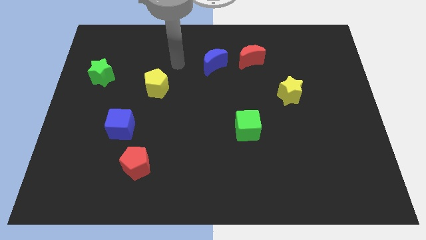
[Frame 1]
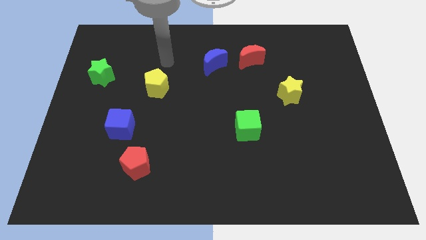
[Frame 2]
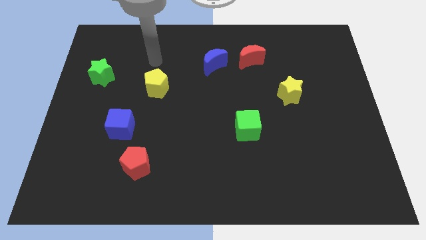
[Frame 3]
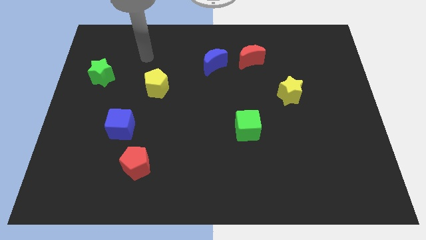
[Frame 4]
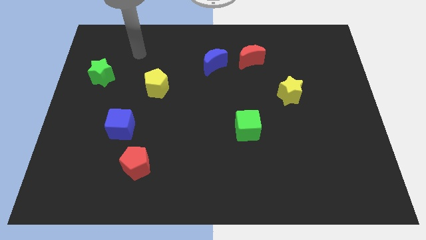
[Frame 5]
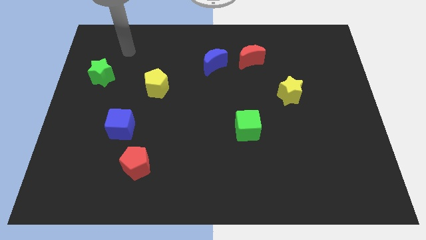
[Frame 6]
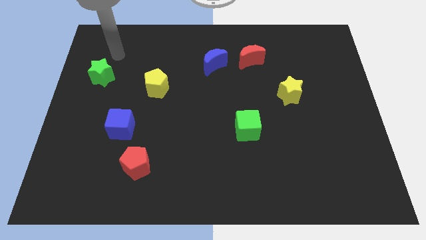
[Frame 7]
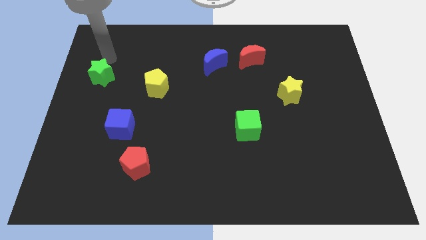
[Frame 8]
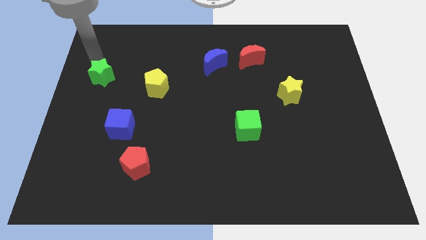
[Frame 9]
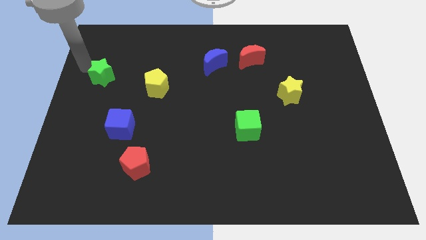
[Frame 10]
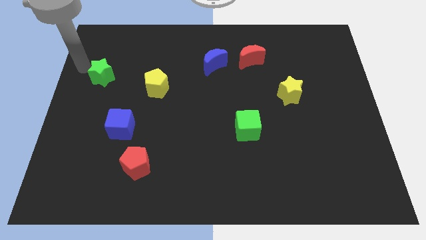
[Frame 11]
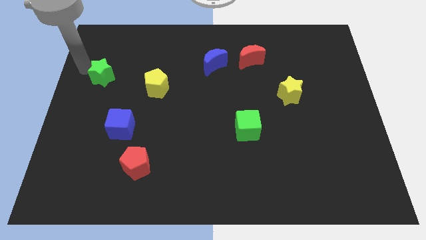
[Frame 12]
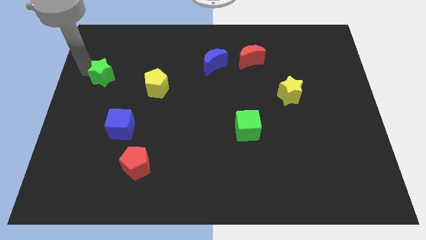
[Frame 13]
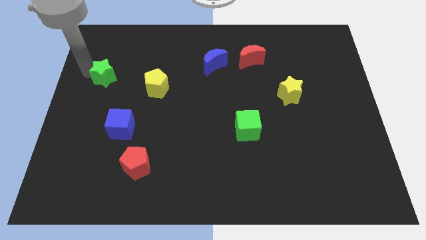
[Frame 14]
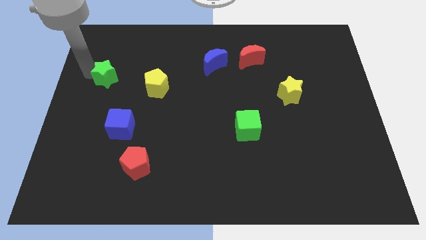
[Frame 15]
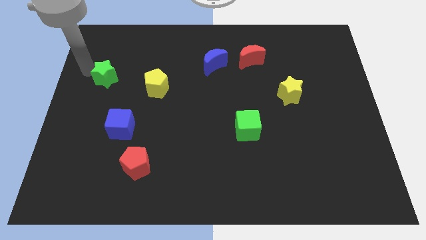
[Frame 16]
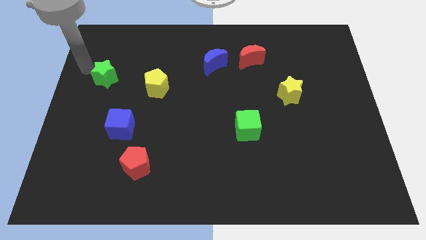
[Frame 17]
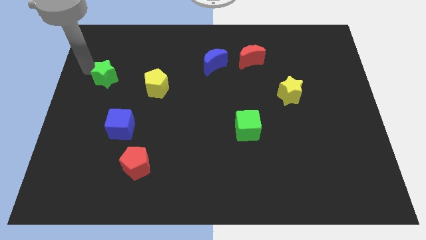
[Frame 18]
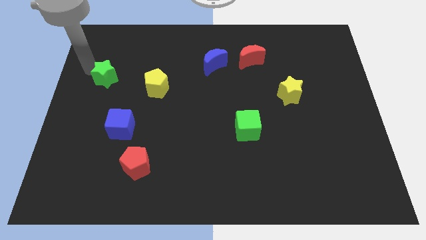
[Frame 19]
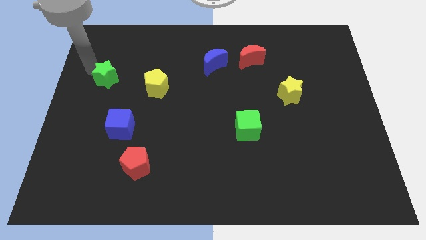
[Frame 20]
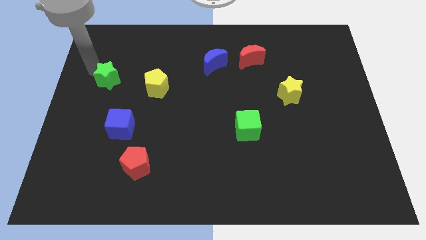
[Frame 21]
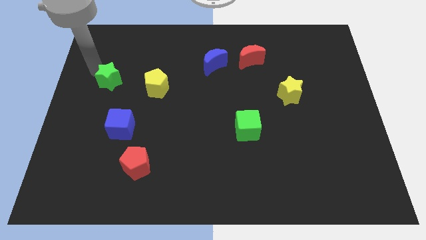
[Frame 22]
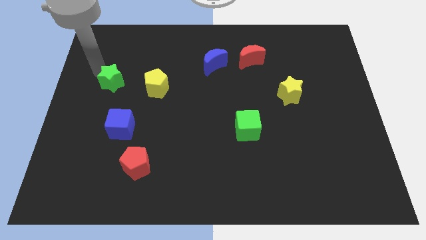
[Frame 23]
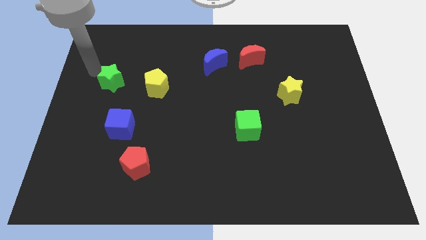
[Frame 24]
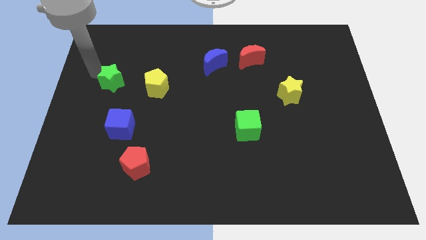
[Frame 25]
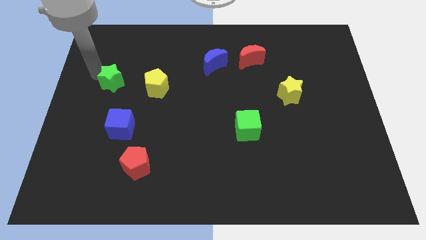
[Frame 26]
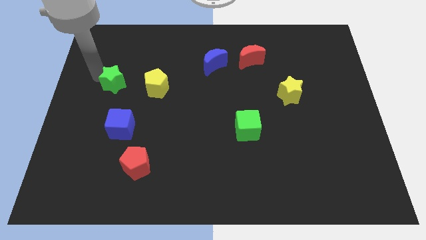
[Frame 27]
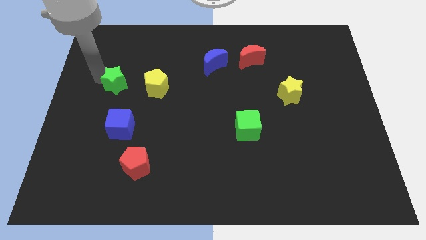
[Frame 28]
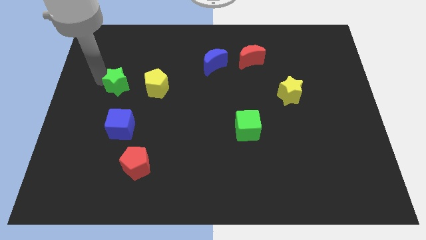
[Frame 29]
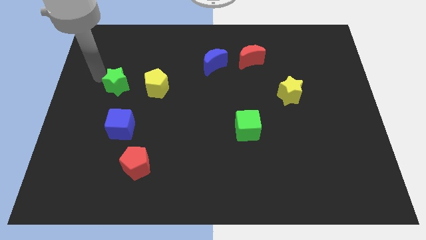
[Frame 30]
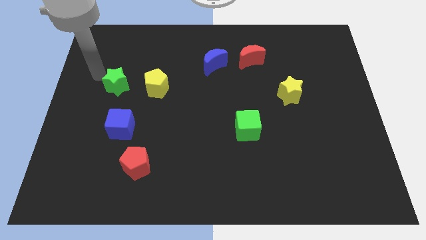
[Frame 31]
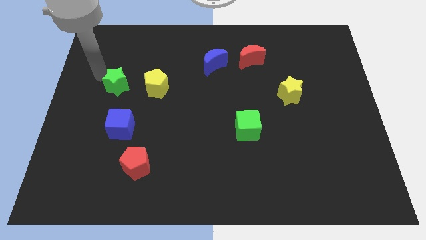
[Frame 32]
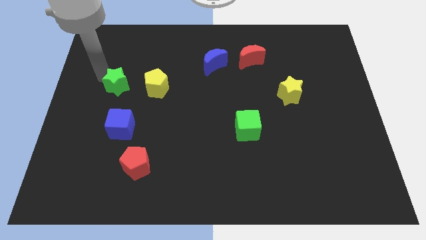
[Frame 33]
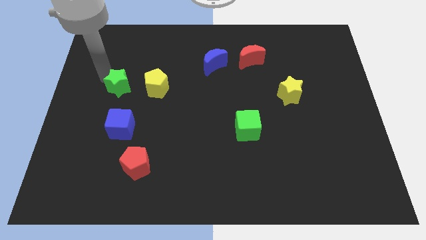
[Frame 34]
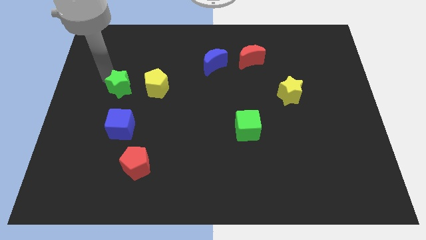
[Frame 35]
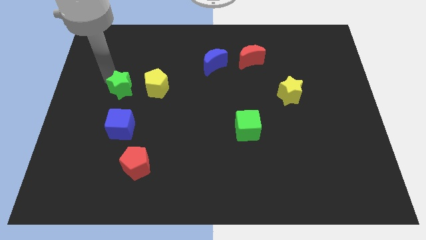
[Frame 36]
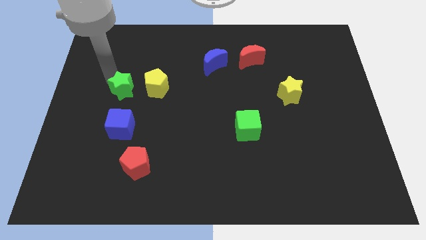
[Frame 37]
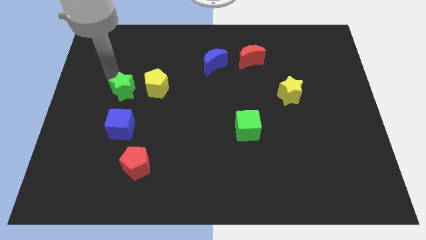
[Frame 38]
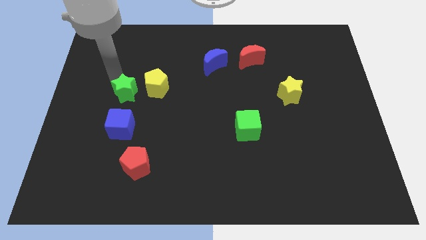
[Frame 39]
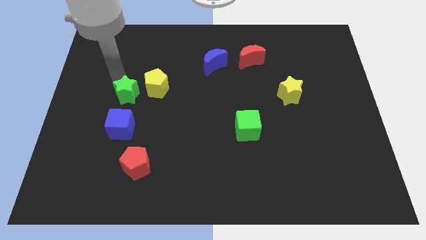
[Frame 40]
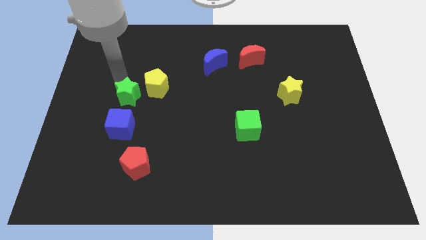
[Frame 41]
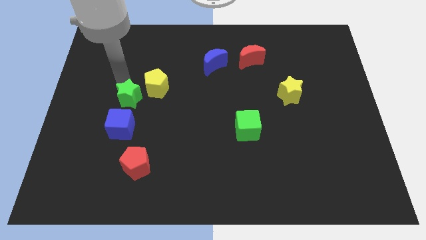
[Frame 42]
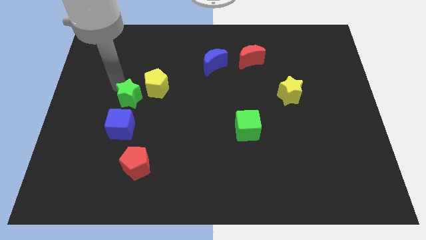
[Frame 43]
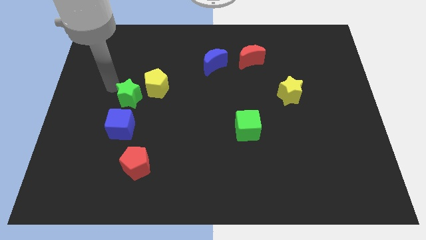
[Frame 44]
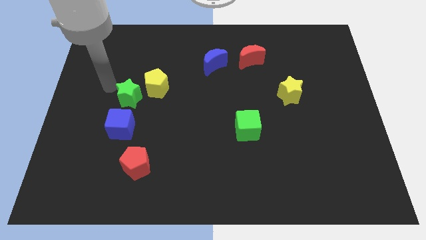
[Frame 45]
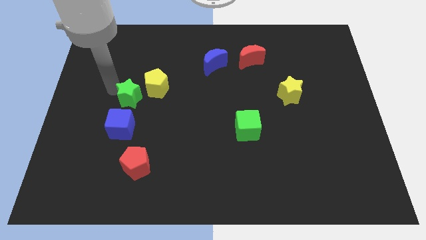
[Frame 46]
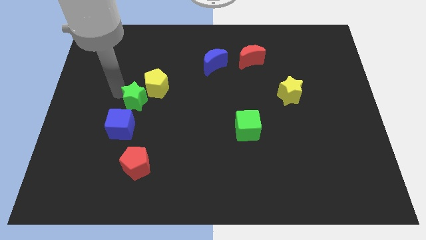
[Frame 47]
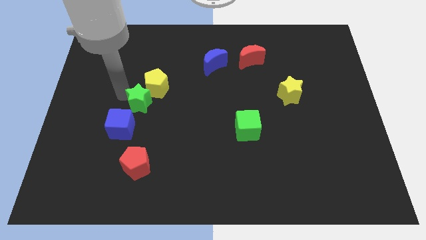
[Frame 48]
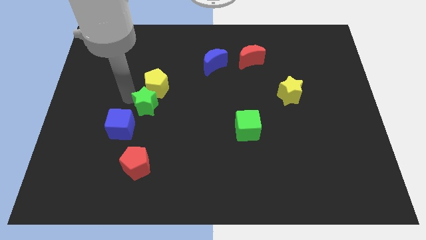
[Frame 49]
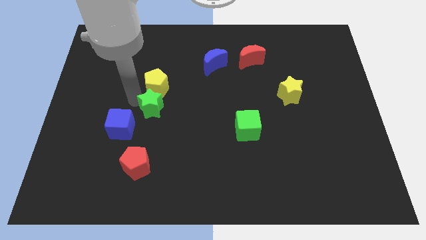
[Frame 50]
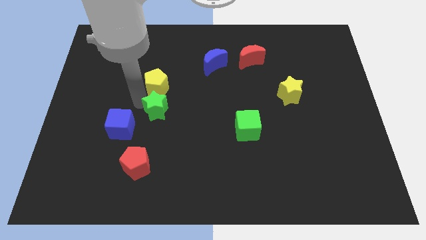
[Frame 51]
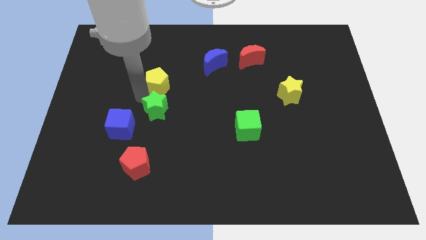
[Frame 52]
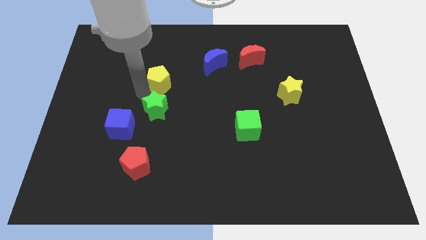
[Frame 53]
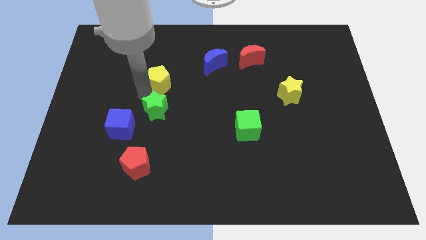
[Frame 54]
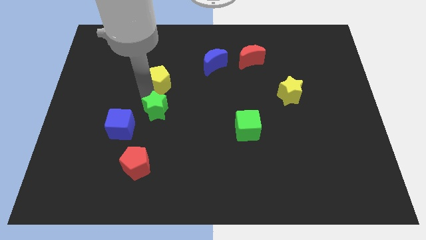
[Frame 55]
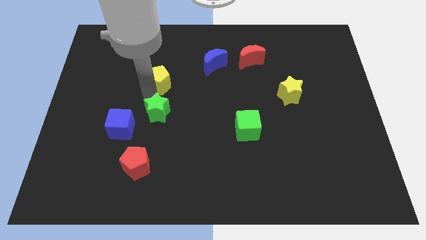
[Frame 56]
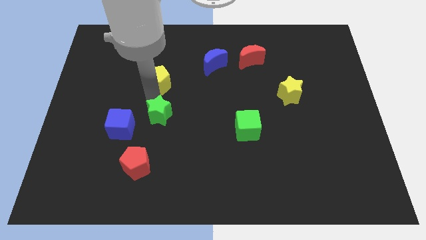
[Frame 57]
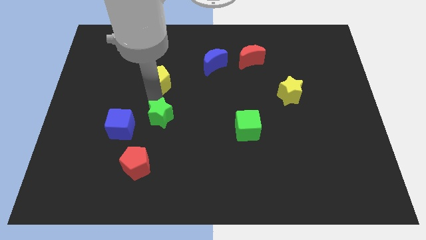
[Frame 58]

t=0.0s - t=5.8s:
push the green star down and to the right

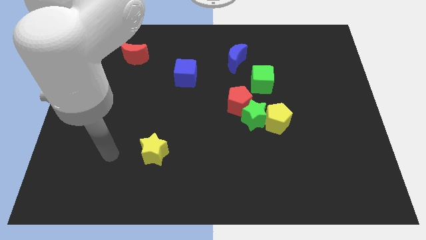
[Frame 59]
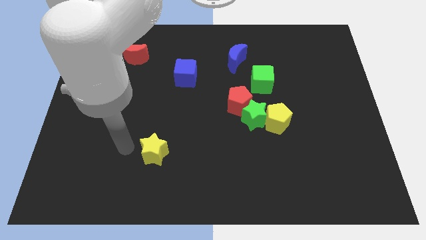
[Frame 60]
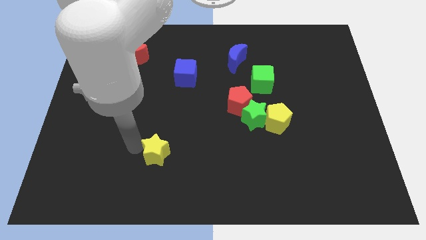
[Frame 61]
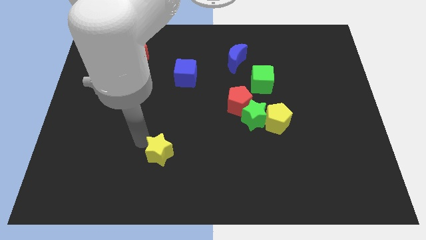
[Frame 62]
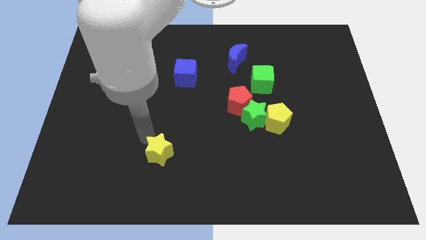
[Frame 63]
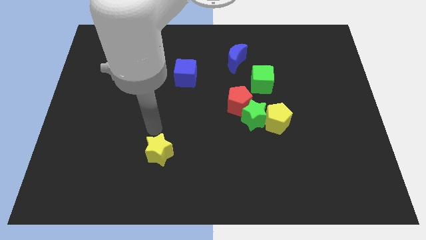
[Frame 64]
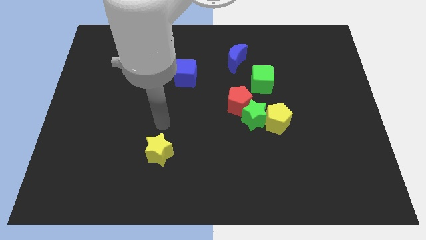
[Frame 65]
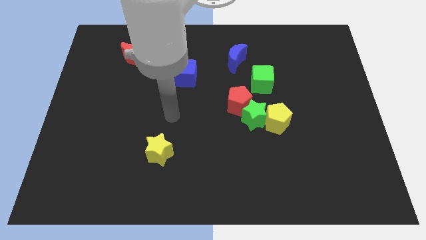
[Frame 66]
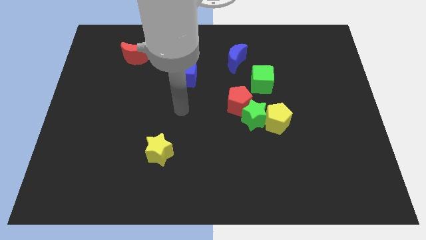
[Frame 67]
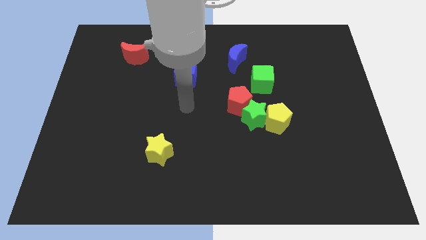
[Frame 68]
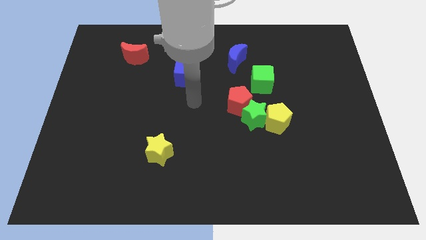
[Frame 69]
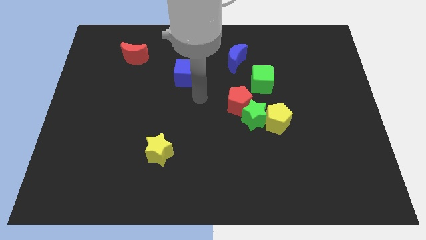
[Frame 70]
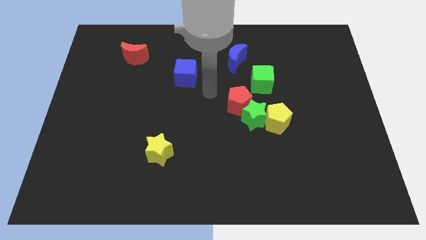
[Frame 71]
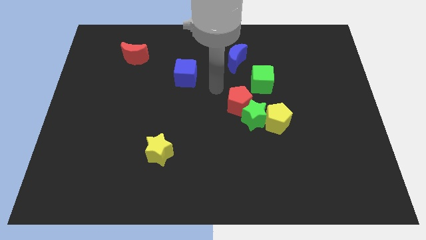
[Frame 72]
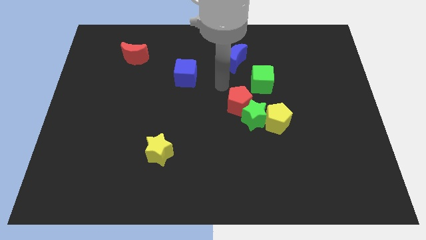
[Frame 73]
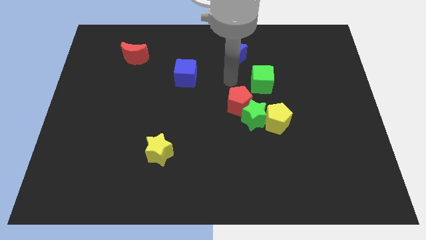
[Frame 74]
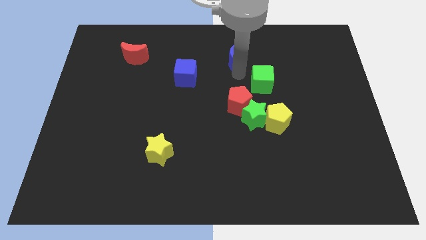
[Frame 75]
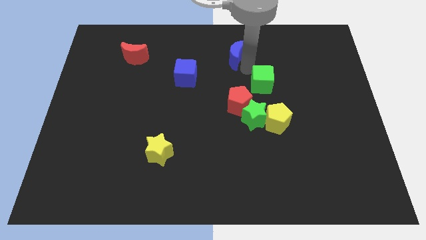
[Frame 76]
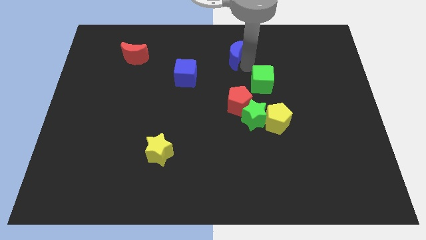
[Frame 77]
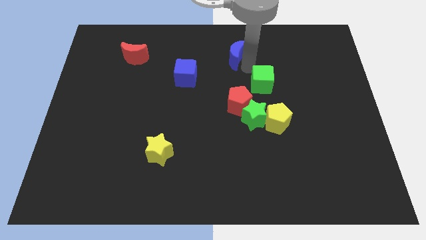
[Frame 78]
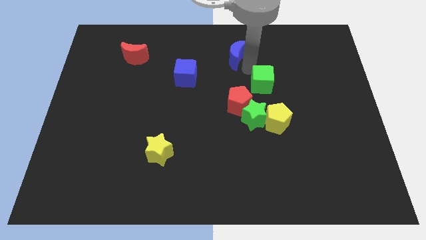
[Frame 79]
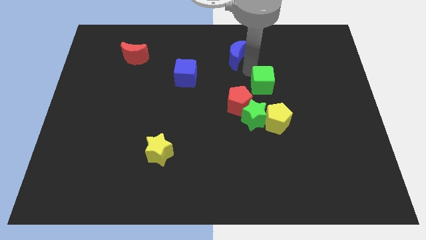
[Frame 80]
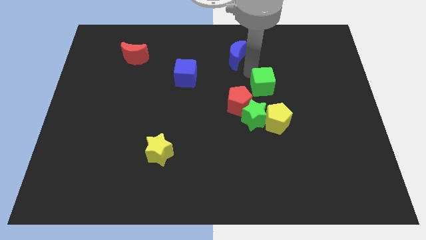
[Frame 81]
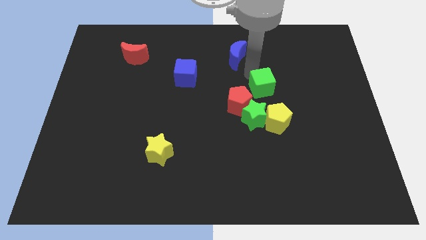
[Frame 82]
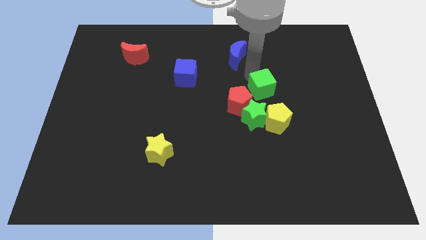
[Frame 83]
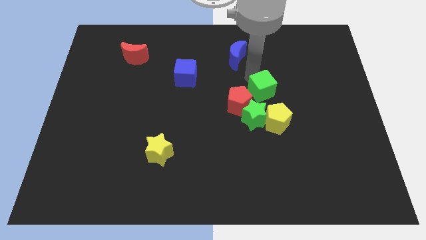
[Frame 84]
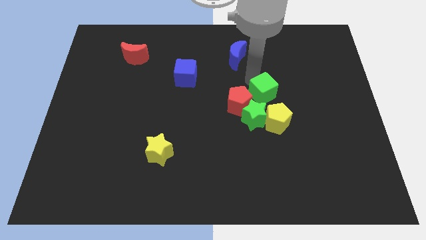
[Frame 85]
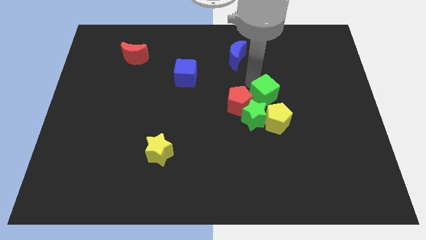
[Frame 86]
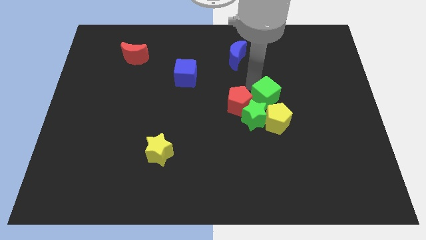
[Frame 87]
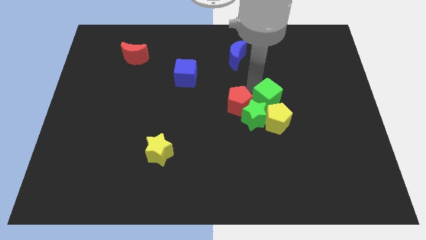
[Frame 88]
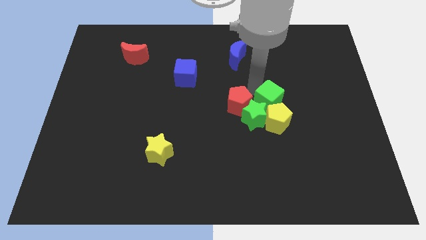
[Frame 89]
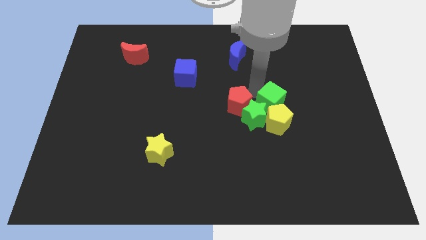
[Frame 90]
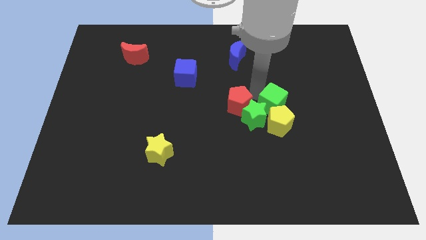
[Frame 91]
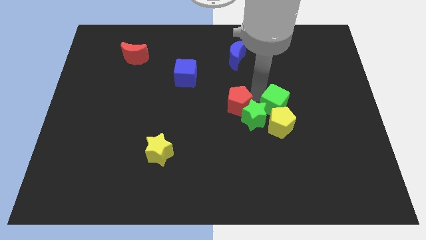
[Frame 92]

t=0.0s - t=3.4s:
slightly push the green cube down
